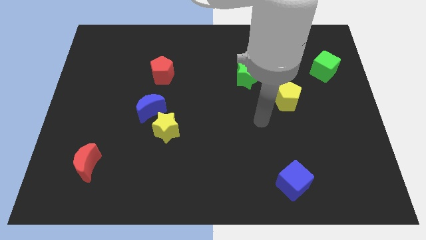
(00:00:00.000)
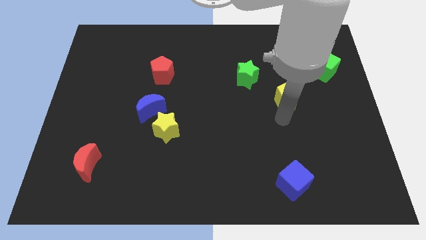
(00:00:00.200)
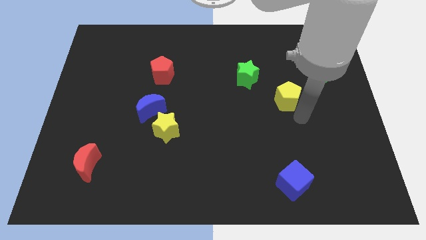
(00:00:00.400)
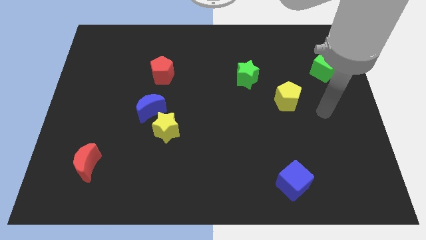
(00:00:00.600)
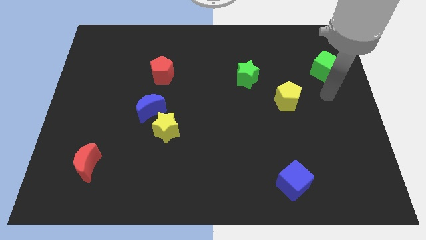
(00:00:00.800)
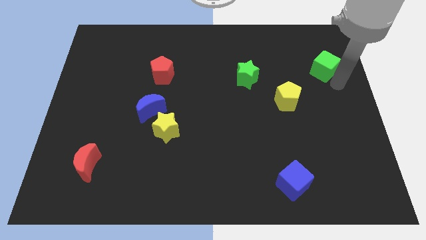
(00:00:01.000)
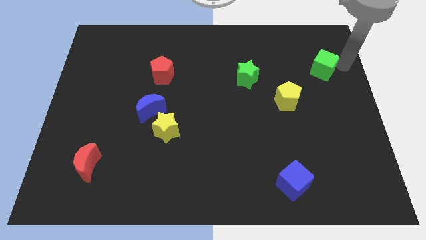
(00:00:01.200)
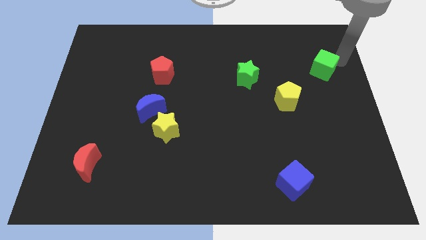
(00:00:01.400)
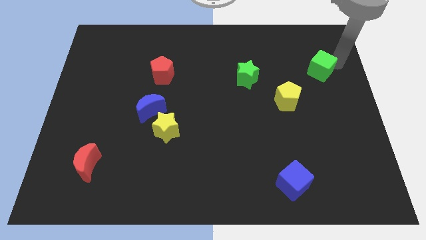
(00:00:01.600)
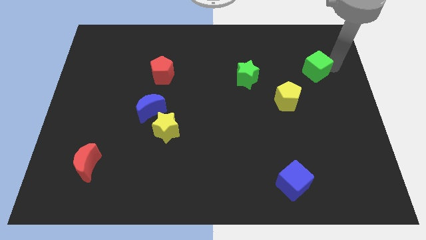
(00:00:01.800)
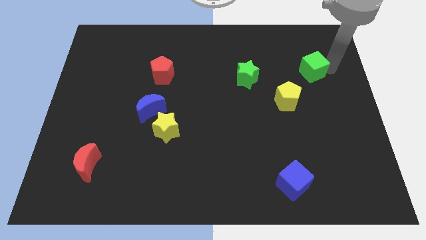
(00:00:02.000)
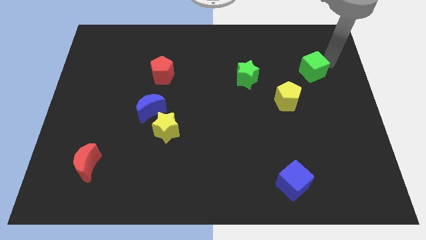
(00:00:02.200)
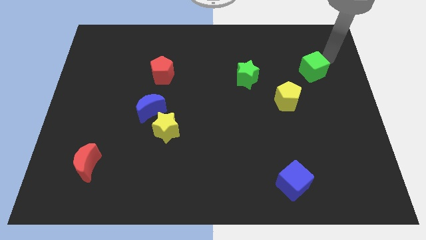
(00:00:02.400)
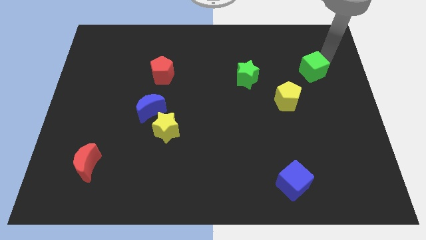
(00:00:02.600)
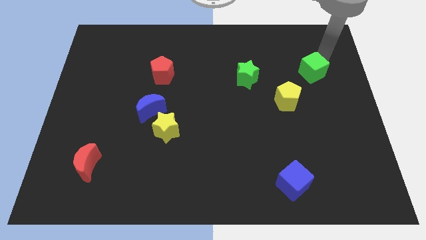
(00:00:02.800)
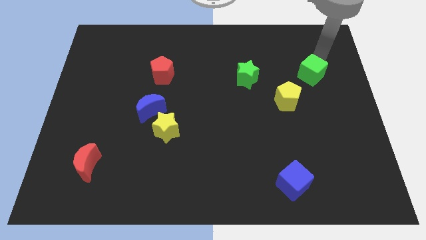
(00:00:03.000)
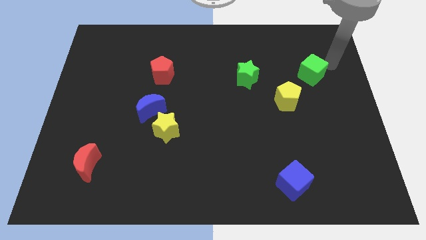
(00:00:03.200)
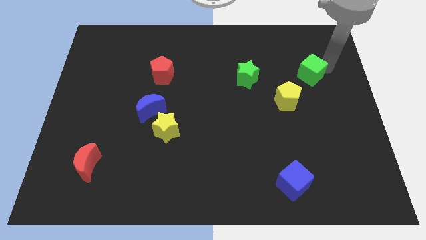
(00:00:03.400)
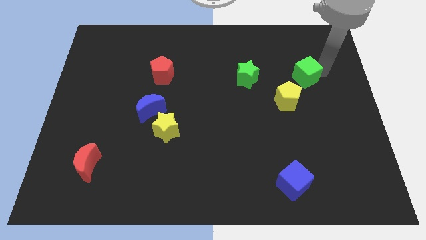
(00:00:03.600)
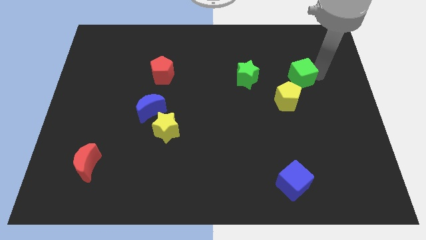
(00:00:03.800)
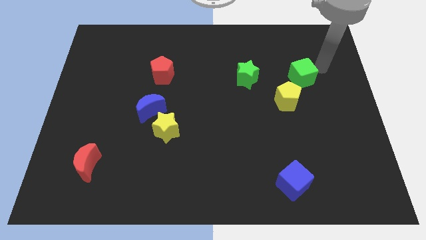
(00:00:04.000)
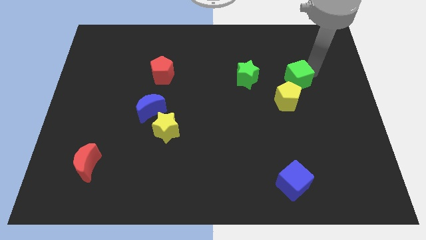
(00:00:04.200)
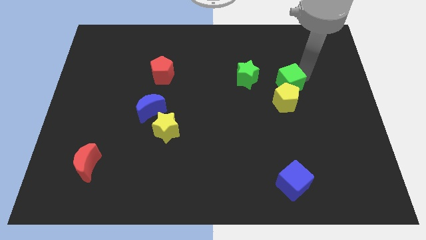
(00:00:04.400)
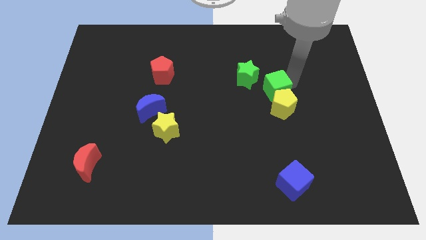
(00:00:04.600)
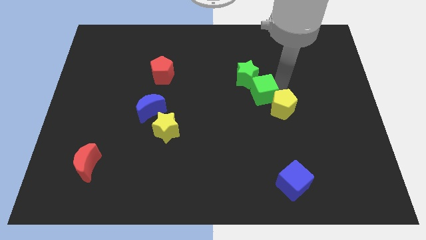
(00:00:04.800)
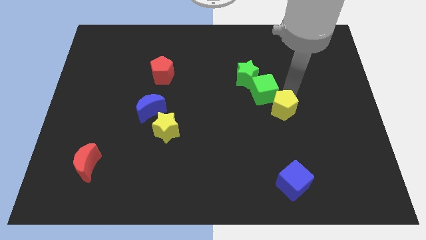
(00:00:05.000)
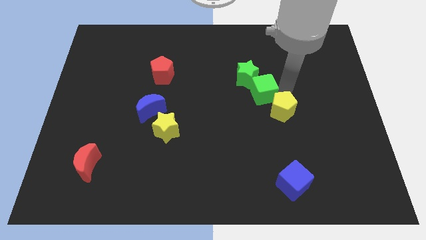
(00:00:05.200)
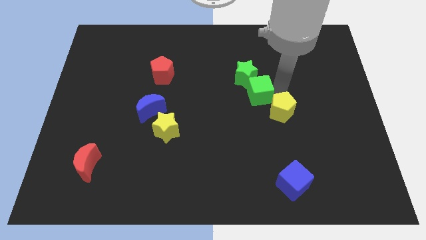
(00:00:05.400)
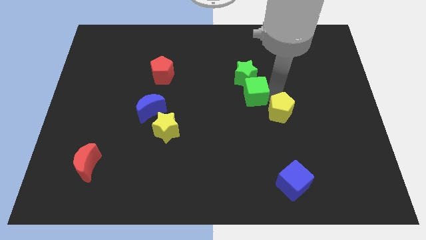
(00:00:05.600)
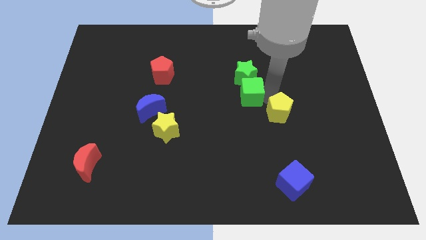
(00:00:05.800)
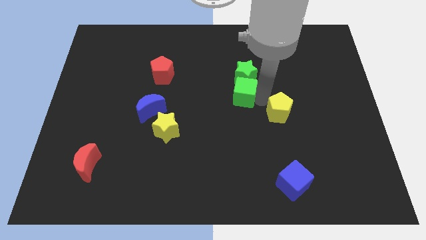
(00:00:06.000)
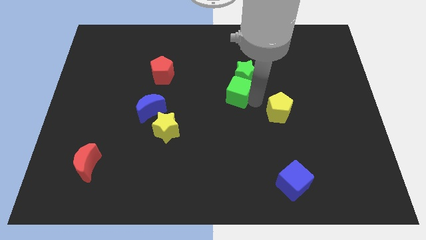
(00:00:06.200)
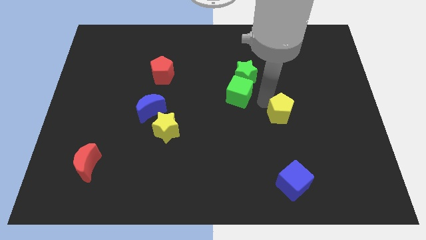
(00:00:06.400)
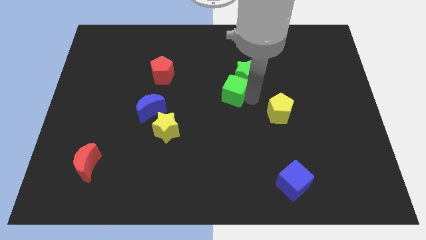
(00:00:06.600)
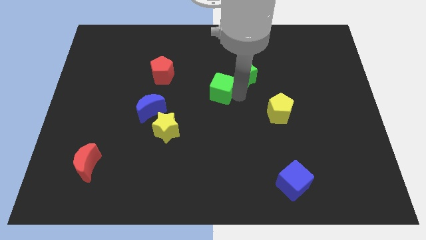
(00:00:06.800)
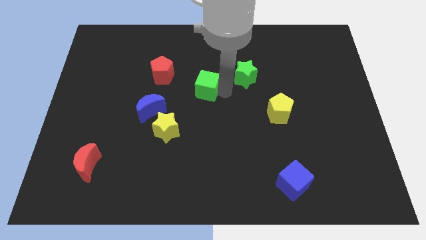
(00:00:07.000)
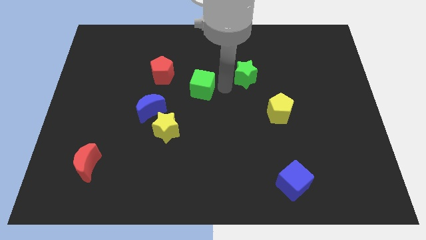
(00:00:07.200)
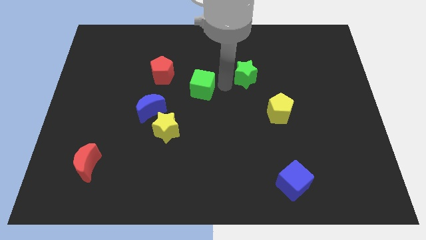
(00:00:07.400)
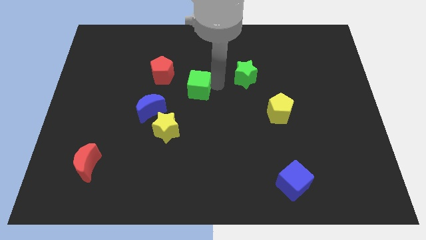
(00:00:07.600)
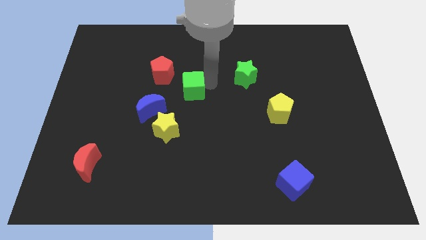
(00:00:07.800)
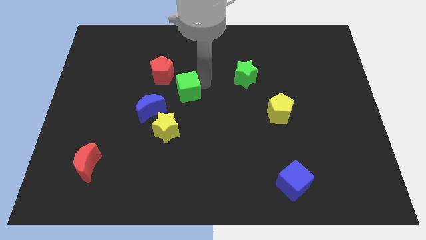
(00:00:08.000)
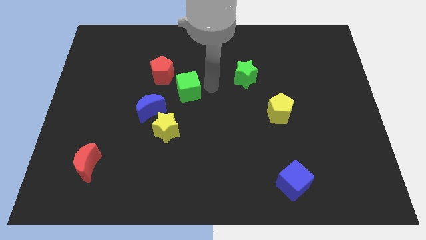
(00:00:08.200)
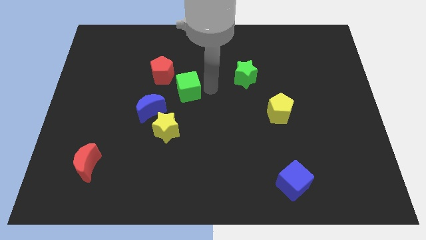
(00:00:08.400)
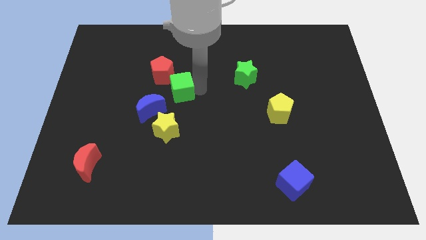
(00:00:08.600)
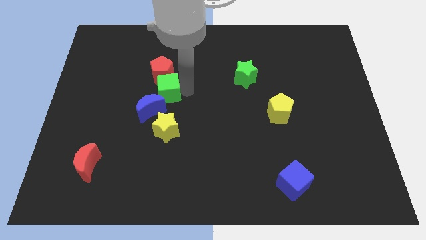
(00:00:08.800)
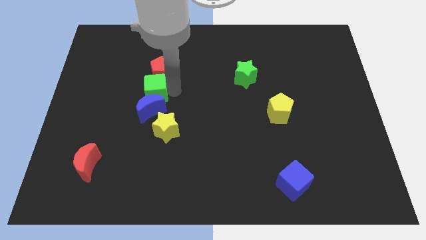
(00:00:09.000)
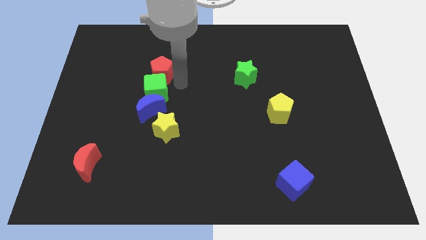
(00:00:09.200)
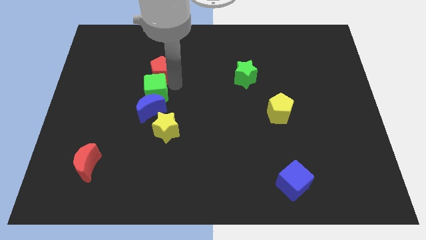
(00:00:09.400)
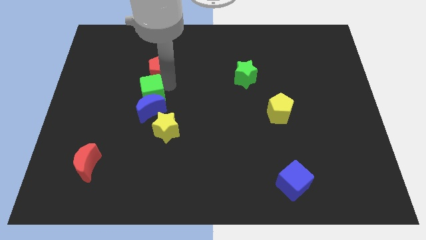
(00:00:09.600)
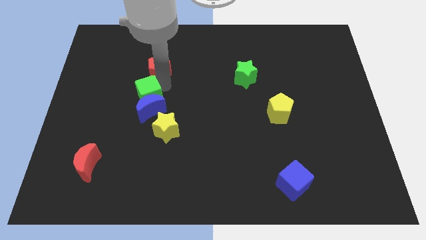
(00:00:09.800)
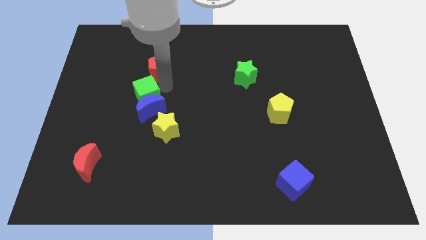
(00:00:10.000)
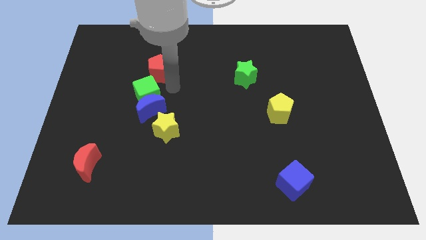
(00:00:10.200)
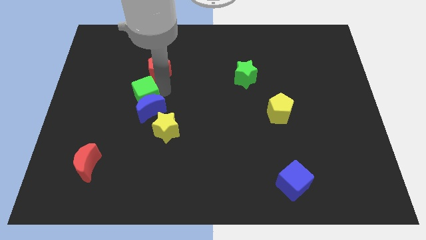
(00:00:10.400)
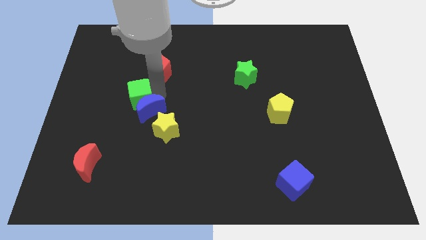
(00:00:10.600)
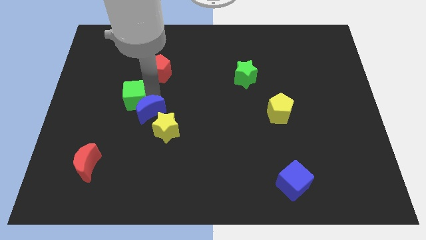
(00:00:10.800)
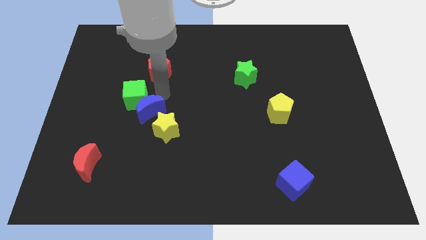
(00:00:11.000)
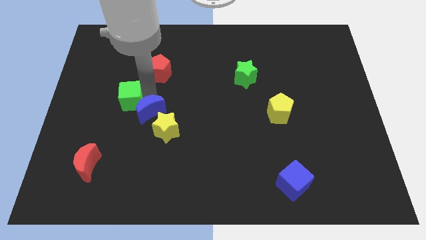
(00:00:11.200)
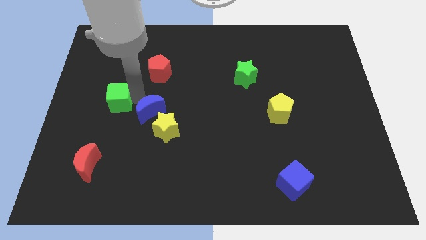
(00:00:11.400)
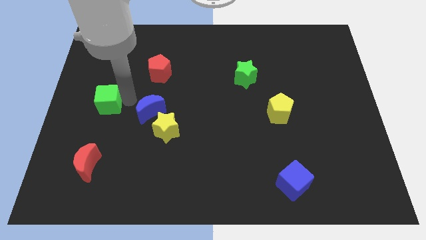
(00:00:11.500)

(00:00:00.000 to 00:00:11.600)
put the green cube to the left side
